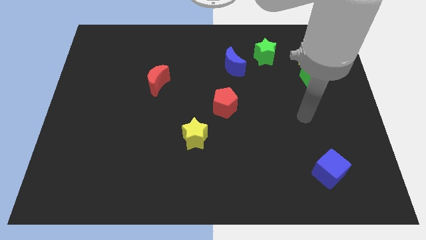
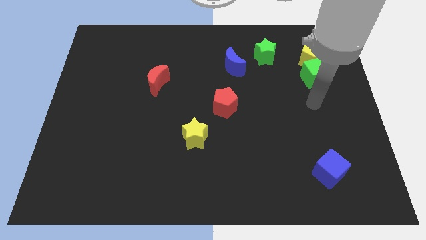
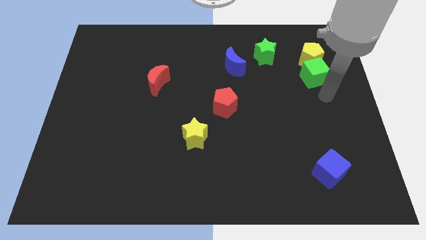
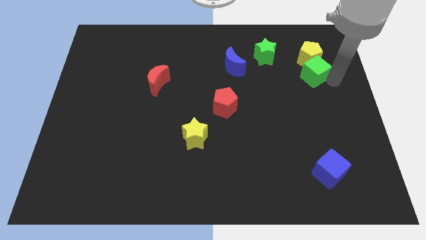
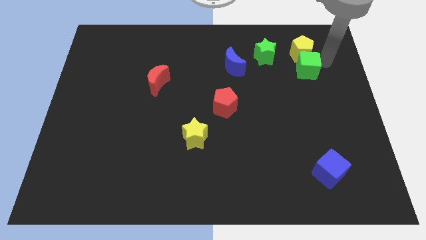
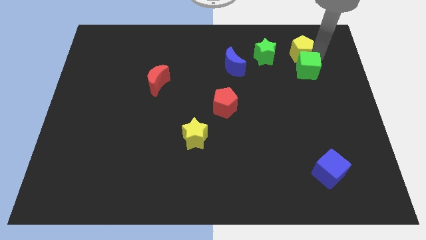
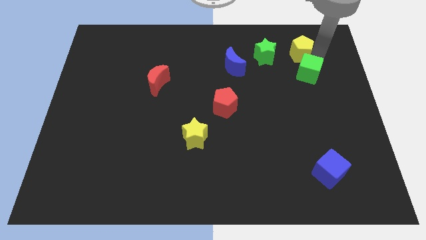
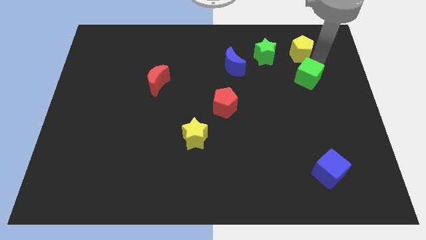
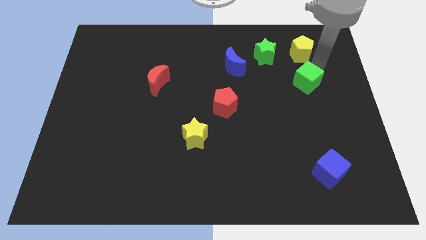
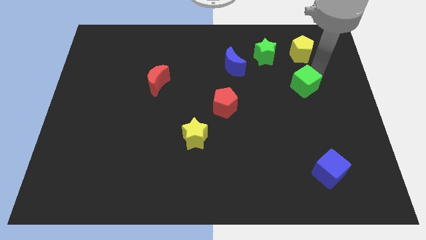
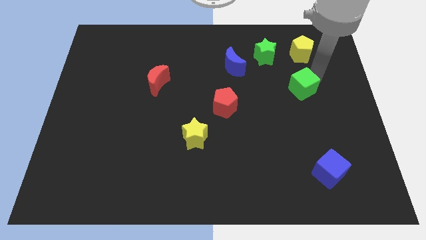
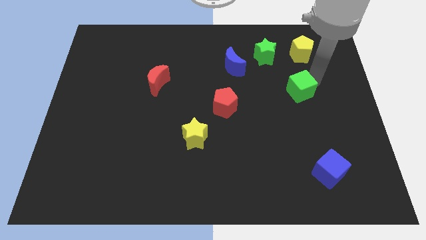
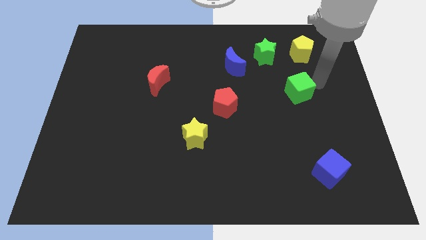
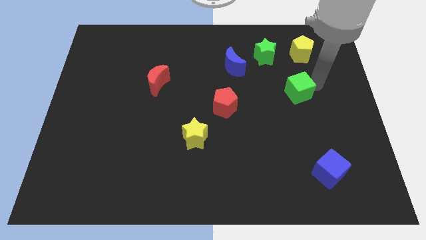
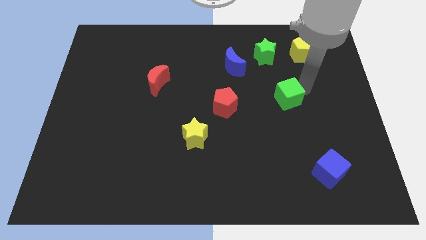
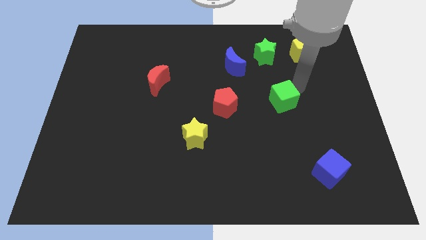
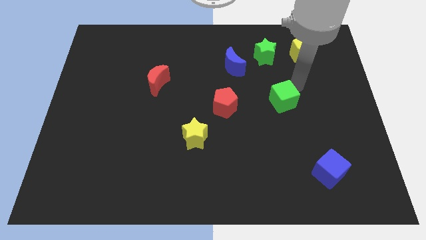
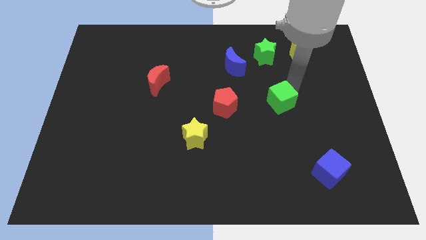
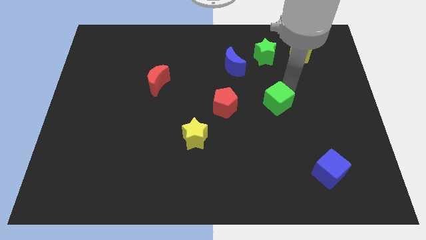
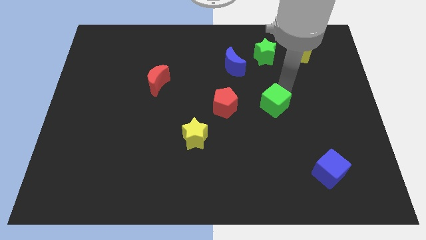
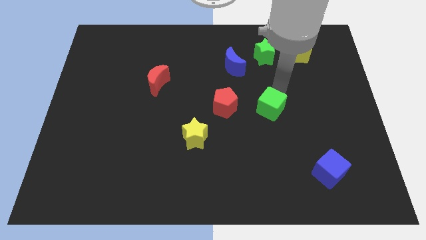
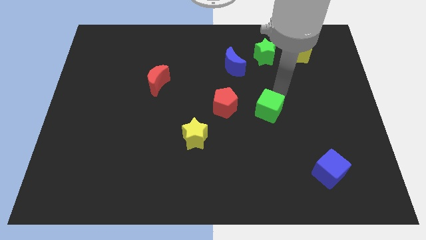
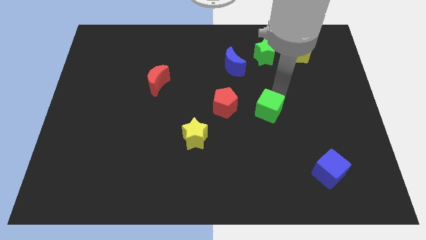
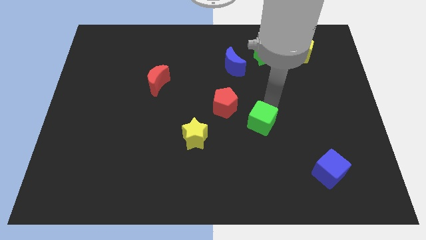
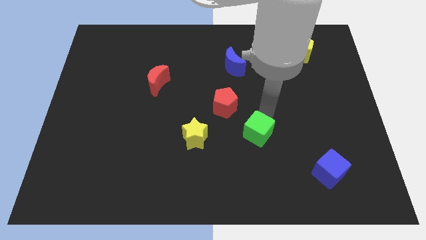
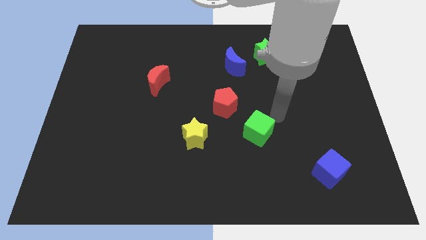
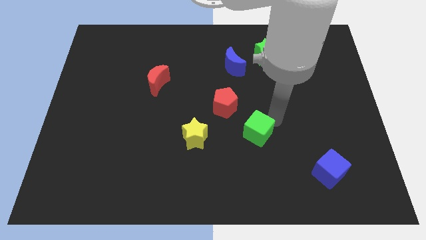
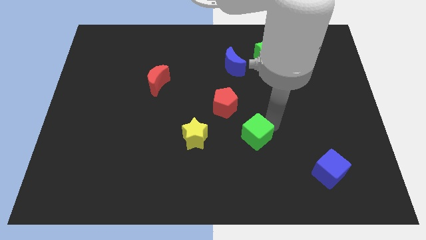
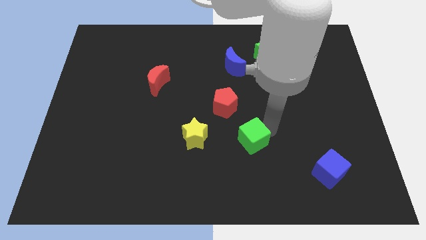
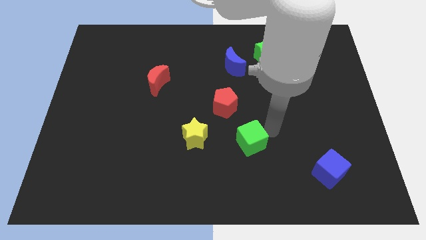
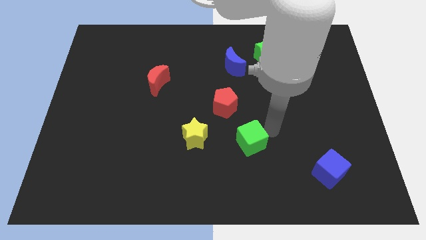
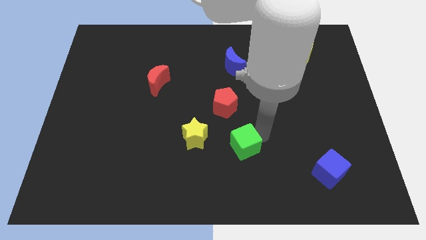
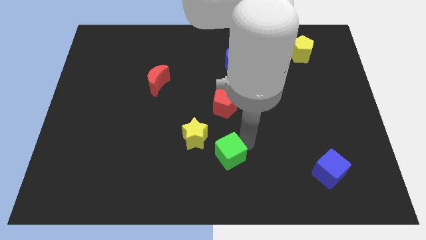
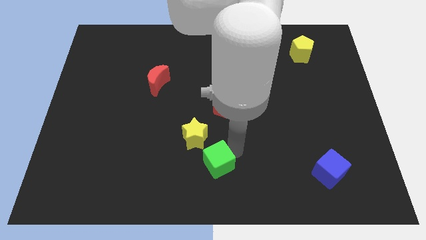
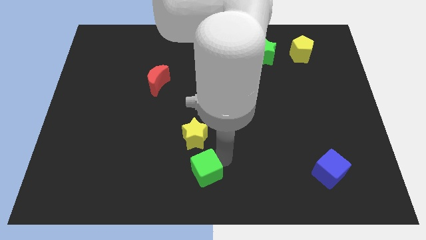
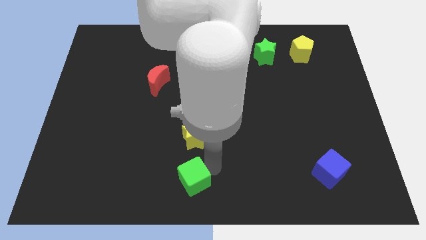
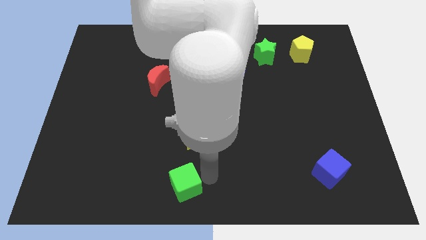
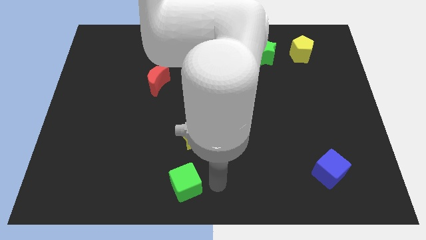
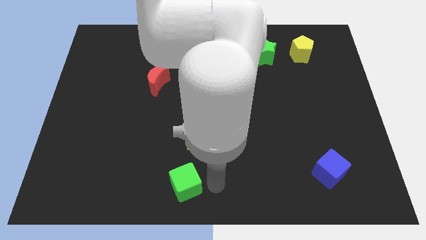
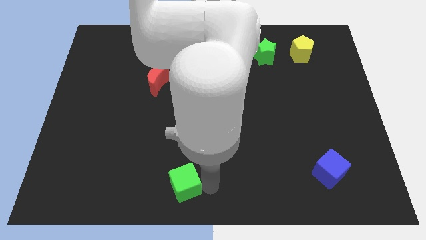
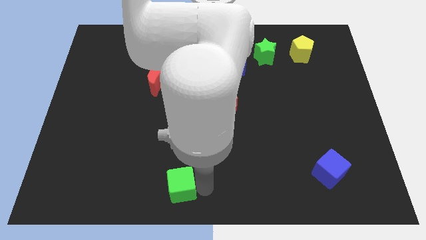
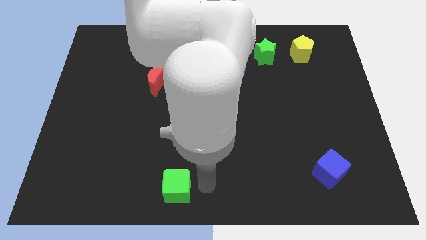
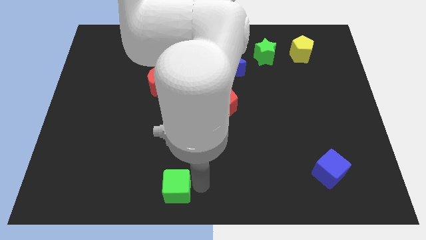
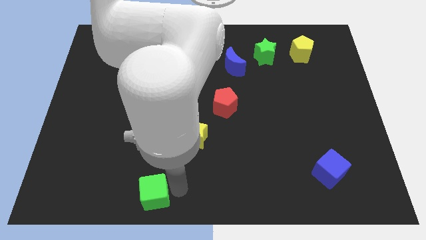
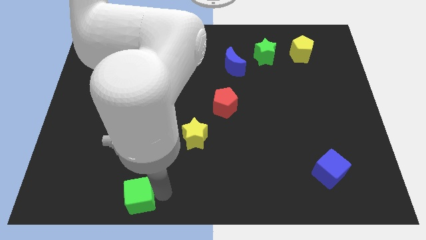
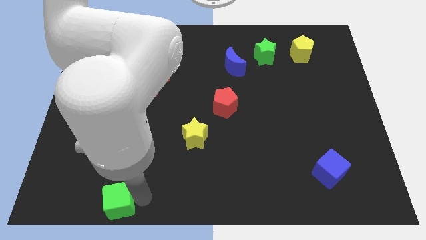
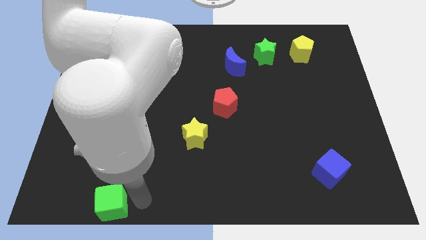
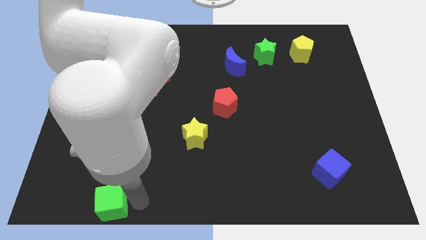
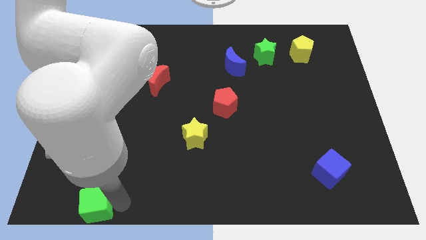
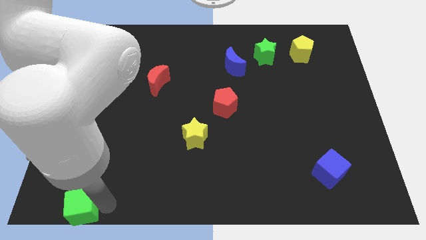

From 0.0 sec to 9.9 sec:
slide the green cube to the lower left corner

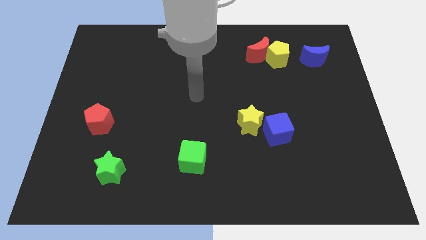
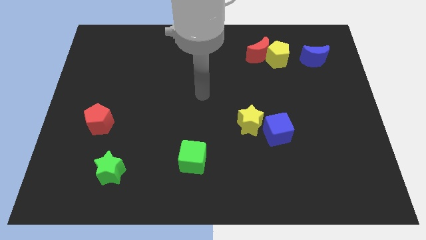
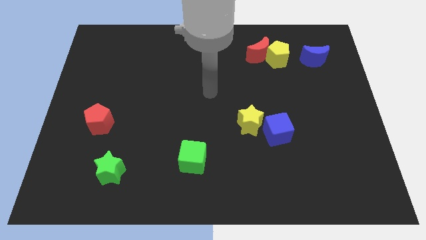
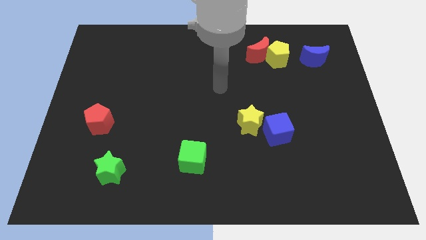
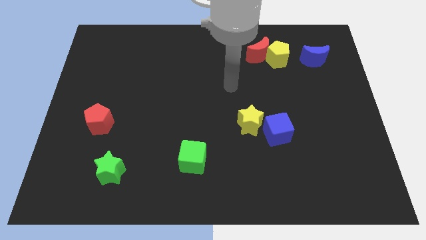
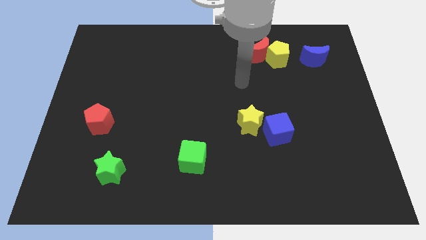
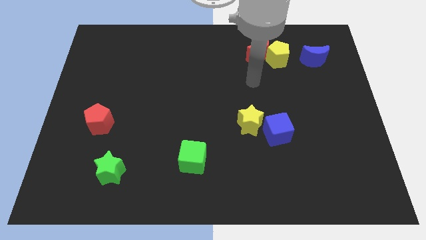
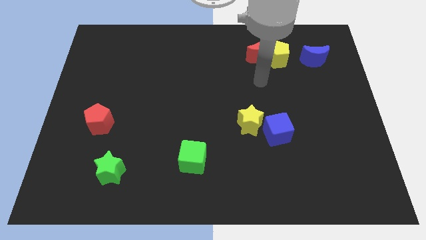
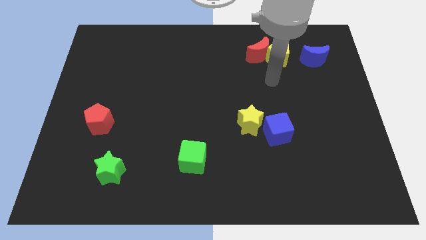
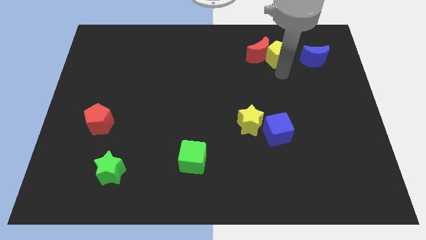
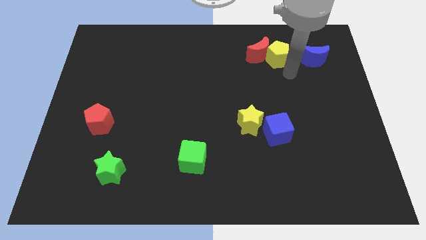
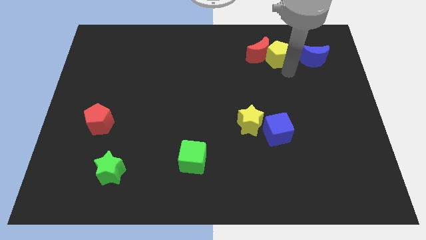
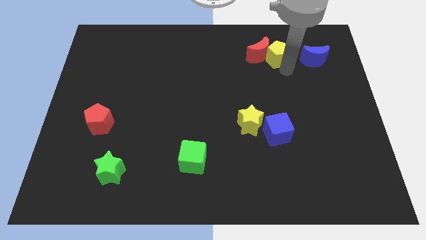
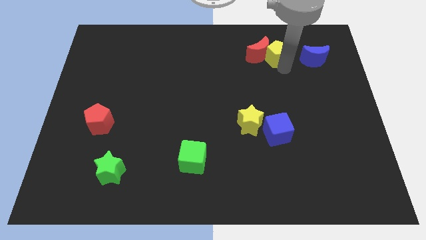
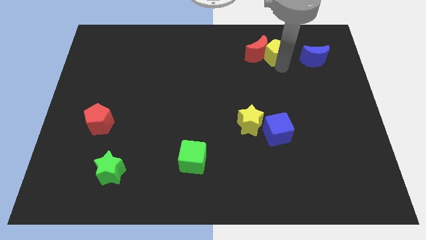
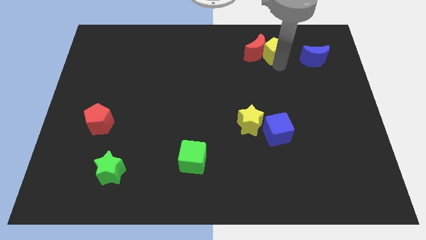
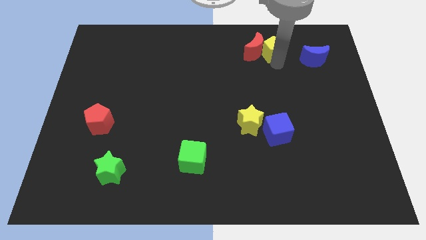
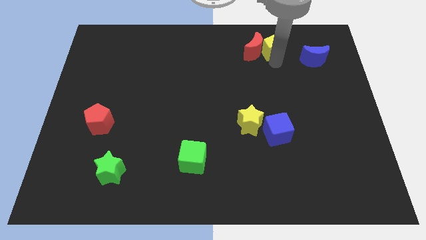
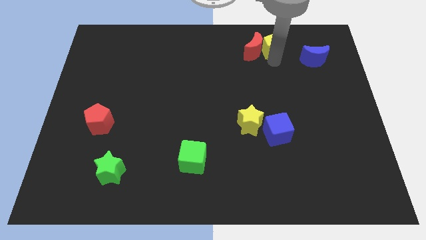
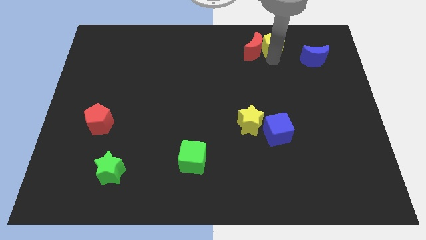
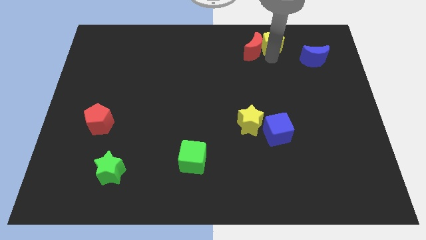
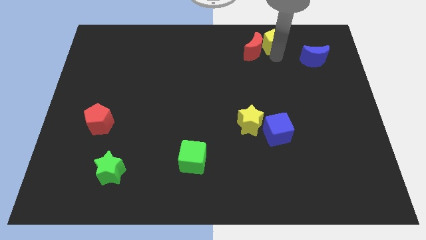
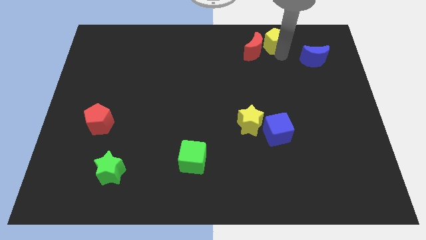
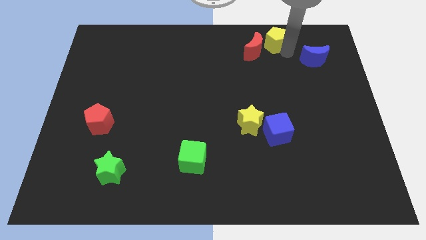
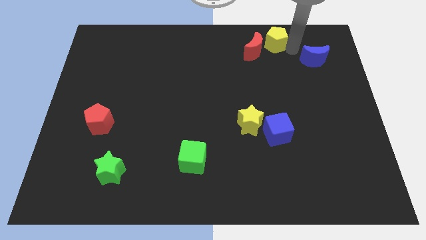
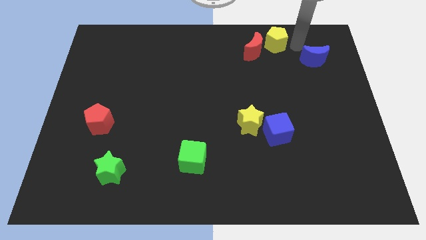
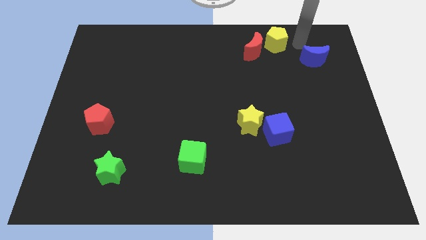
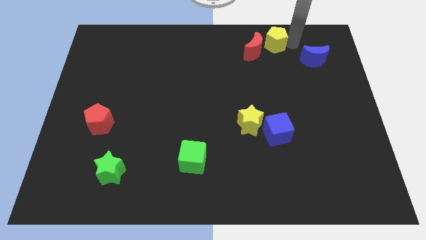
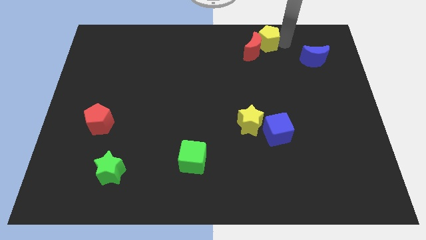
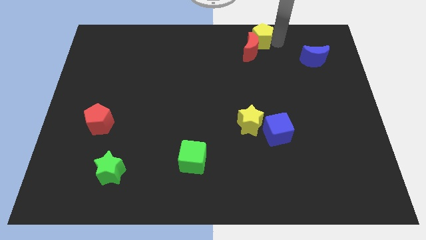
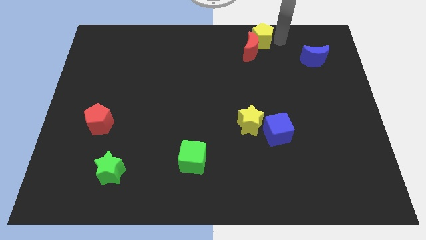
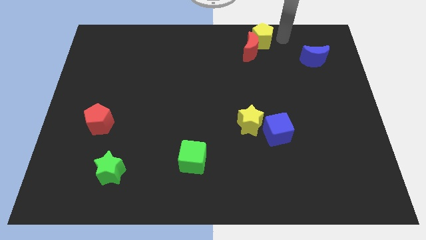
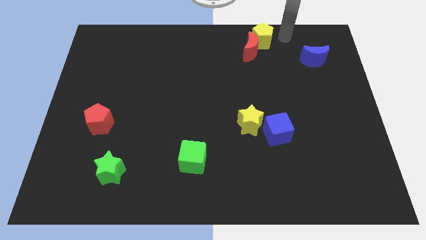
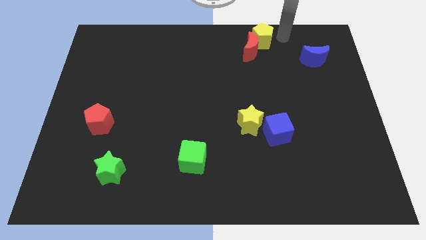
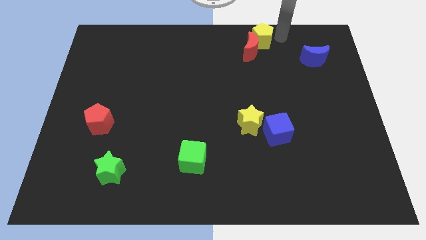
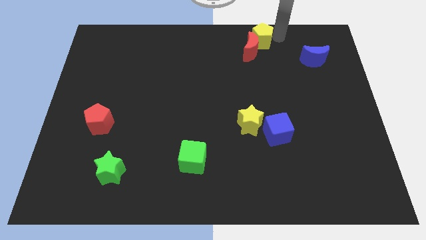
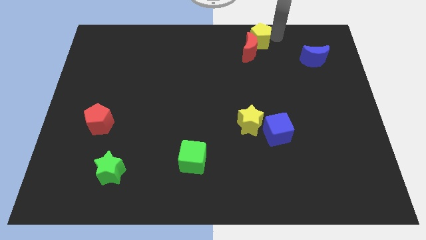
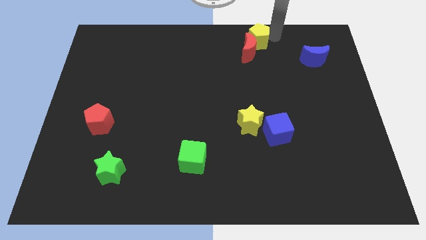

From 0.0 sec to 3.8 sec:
put the yellow pentagon to the top
